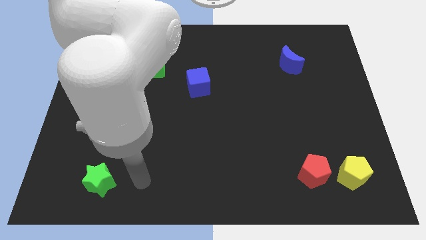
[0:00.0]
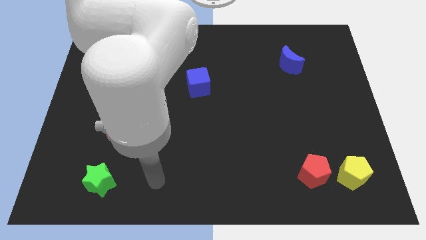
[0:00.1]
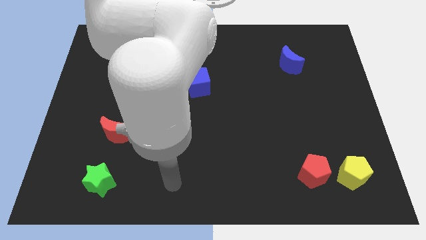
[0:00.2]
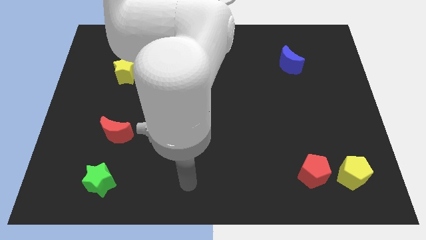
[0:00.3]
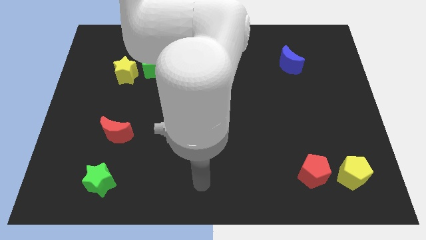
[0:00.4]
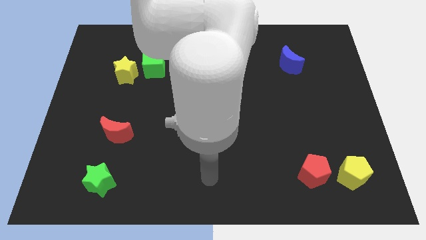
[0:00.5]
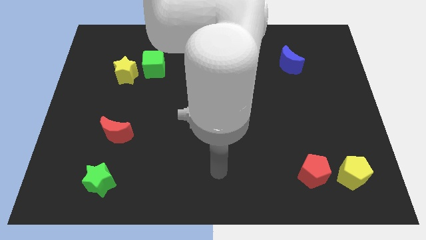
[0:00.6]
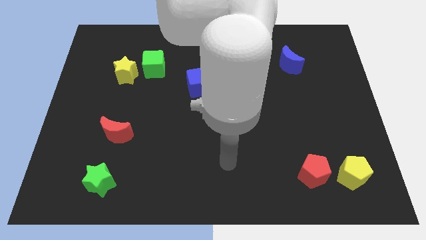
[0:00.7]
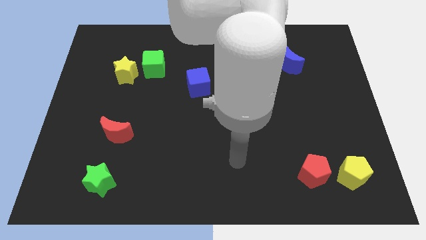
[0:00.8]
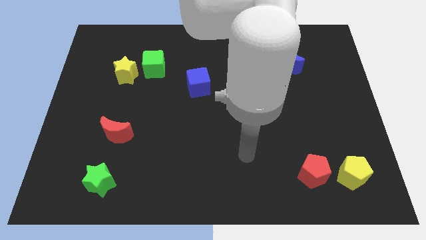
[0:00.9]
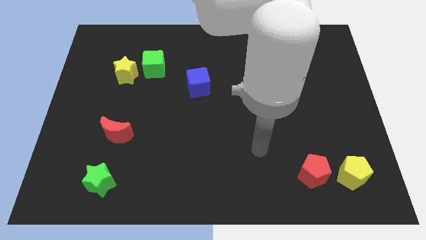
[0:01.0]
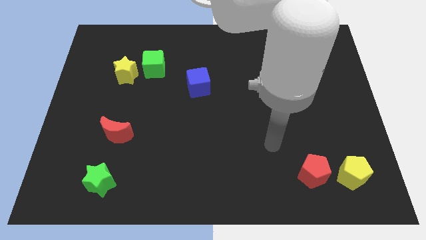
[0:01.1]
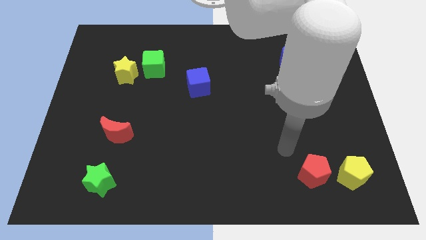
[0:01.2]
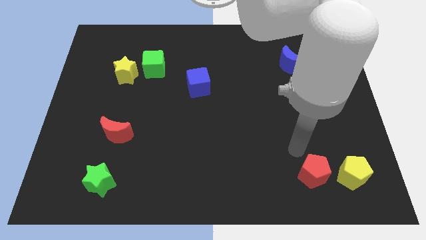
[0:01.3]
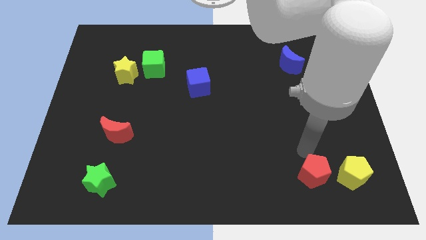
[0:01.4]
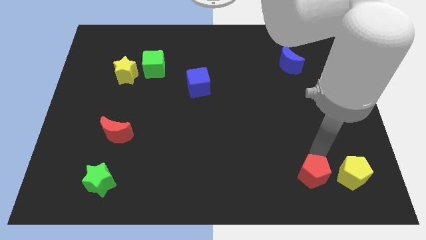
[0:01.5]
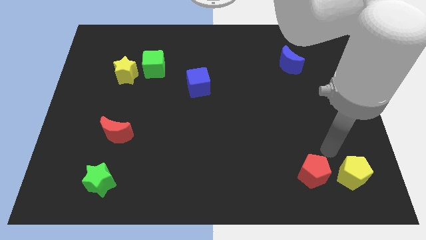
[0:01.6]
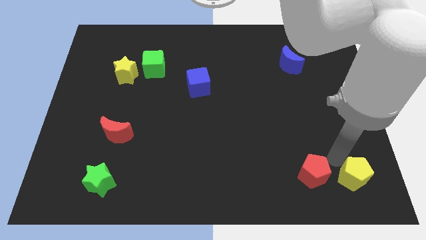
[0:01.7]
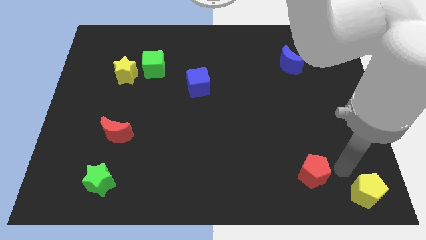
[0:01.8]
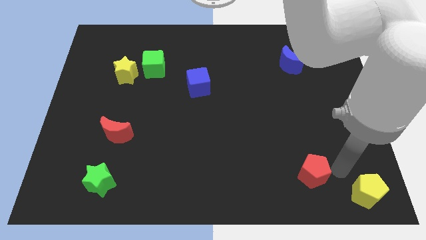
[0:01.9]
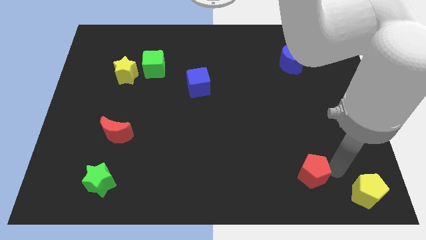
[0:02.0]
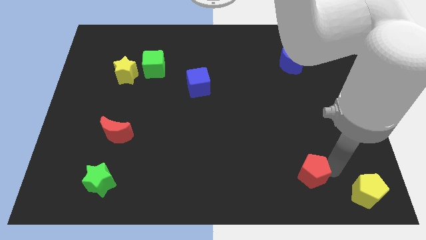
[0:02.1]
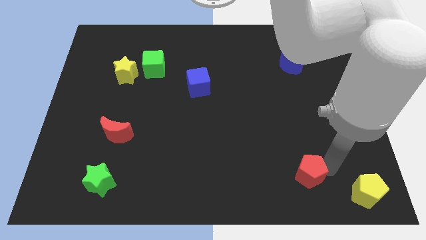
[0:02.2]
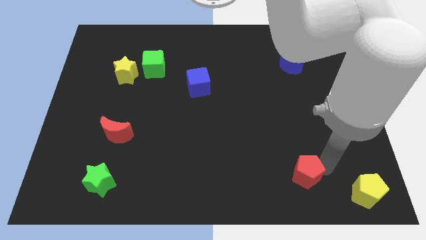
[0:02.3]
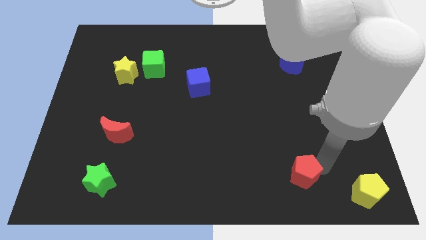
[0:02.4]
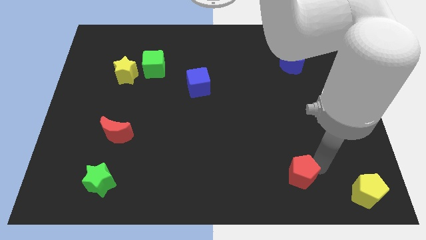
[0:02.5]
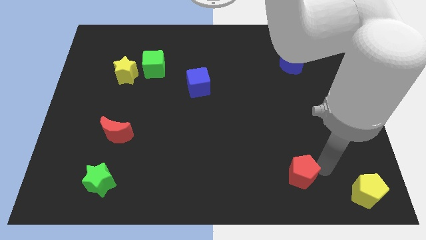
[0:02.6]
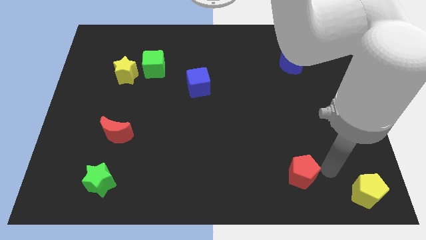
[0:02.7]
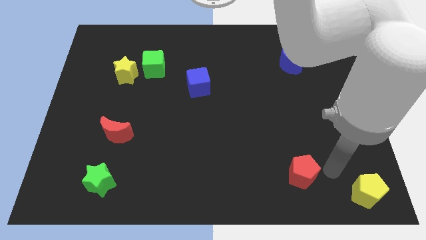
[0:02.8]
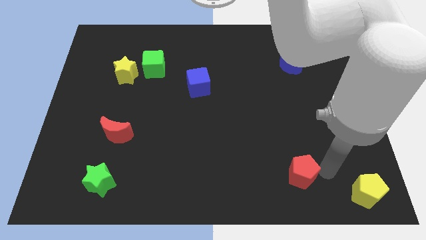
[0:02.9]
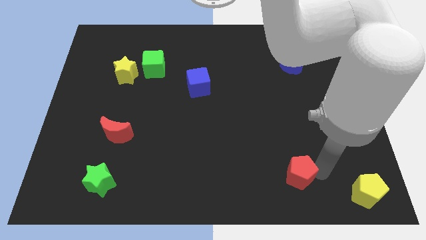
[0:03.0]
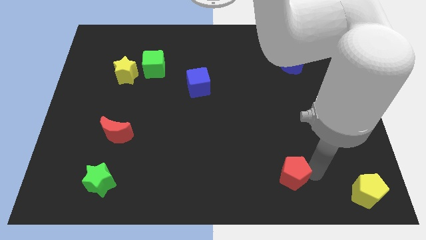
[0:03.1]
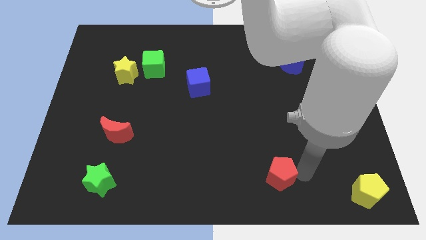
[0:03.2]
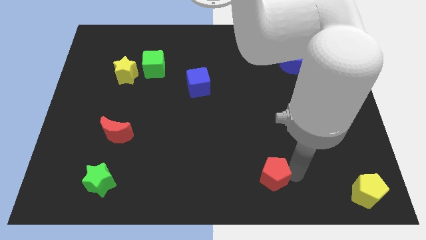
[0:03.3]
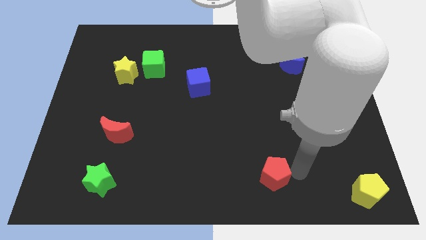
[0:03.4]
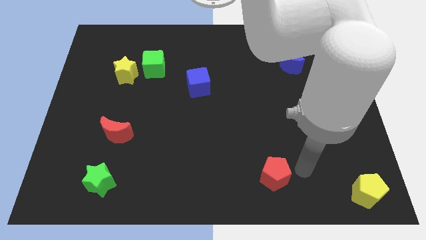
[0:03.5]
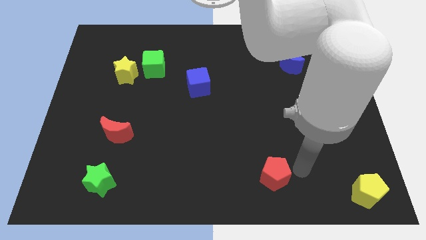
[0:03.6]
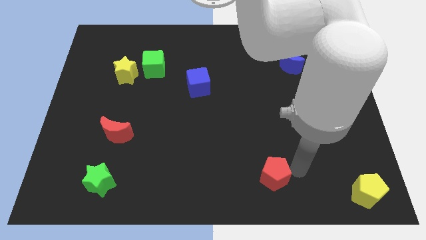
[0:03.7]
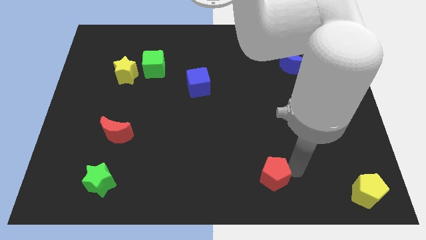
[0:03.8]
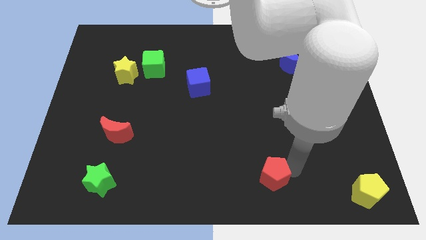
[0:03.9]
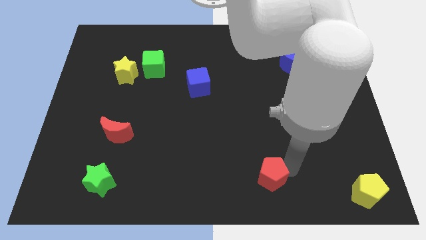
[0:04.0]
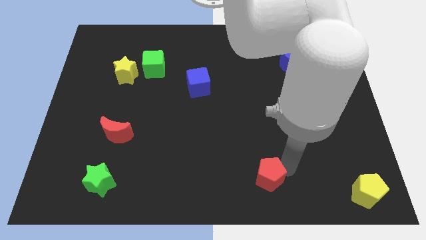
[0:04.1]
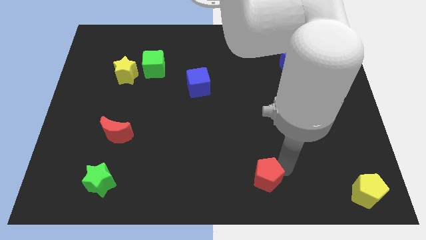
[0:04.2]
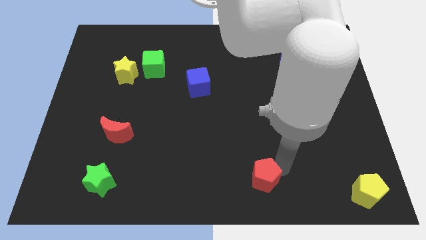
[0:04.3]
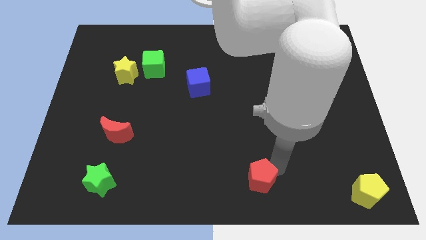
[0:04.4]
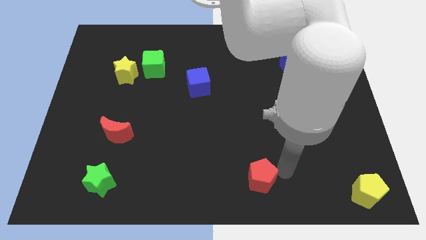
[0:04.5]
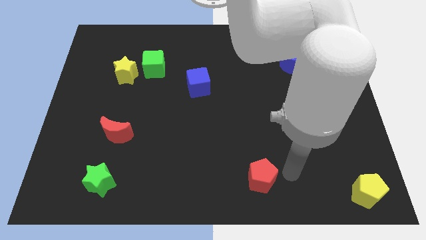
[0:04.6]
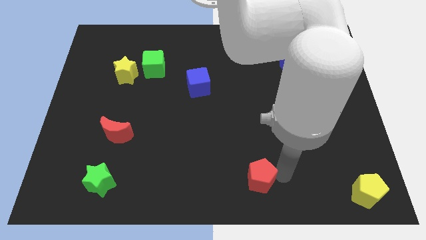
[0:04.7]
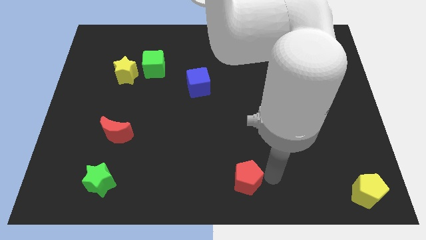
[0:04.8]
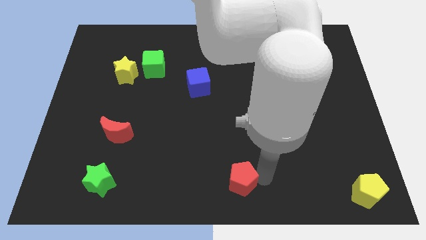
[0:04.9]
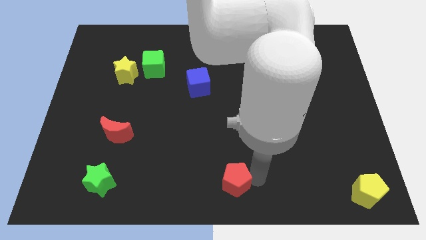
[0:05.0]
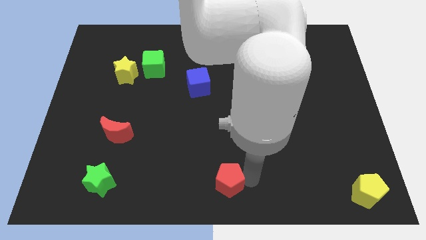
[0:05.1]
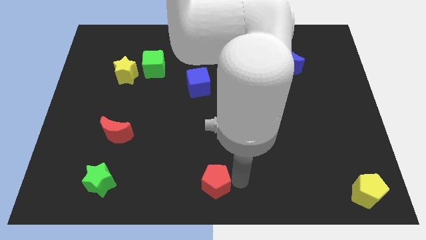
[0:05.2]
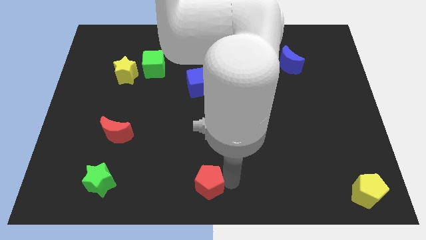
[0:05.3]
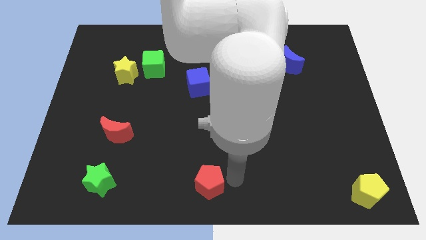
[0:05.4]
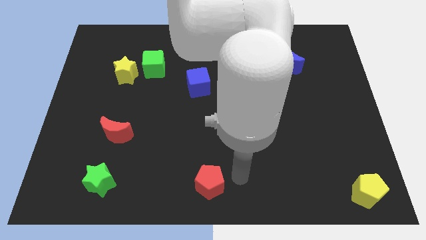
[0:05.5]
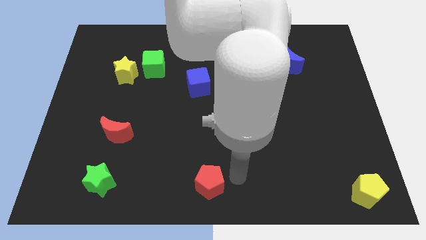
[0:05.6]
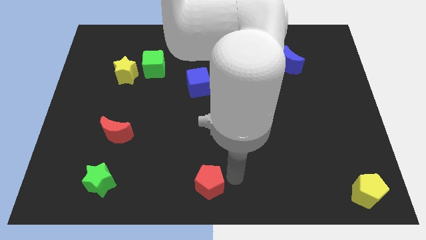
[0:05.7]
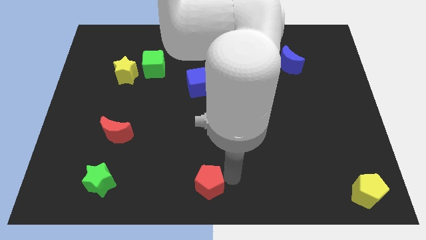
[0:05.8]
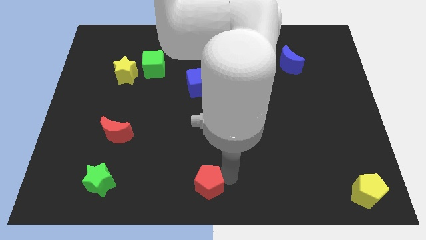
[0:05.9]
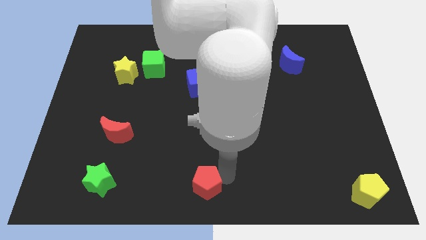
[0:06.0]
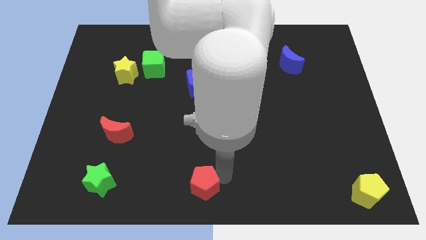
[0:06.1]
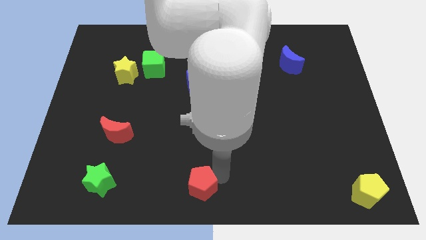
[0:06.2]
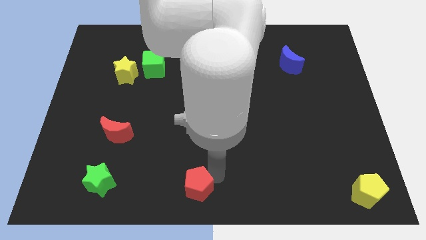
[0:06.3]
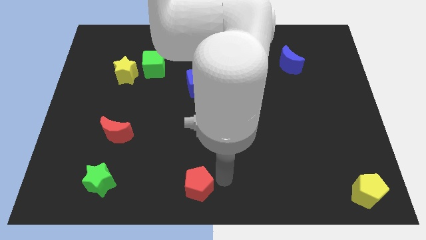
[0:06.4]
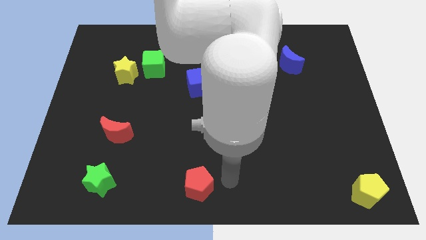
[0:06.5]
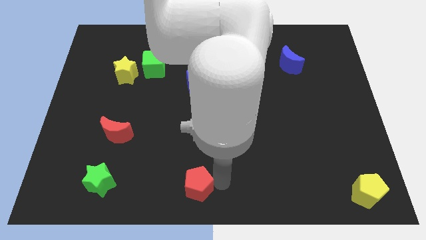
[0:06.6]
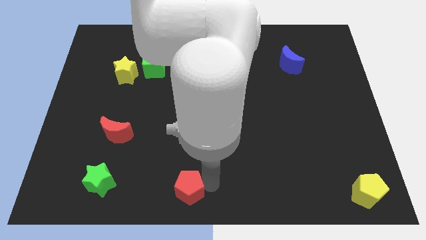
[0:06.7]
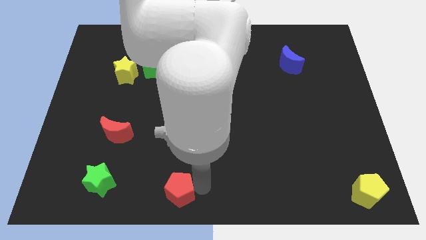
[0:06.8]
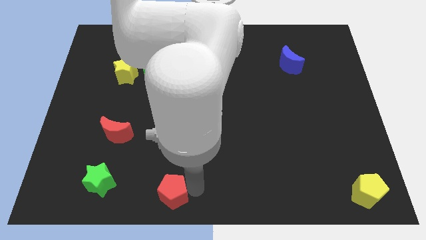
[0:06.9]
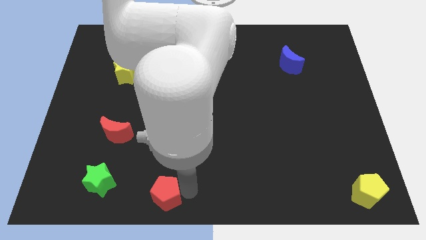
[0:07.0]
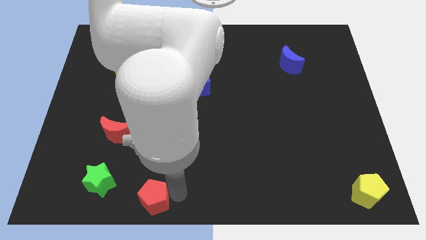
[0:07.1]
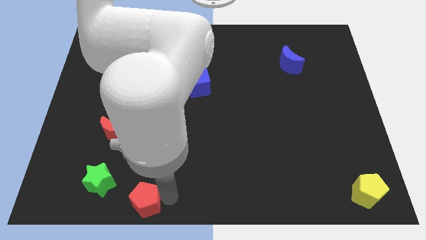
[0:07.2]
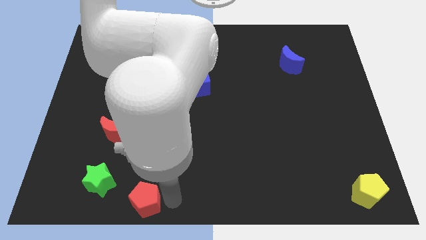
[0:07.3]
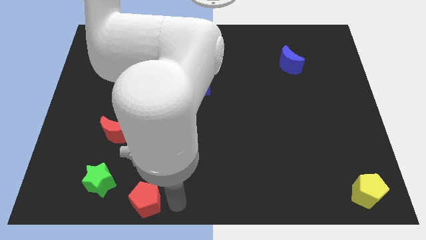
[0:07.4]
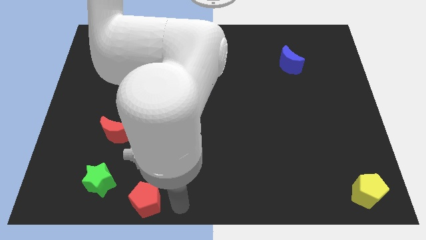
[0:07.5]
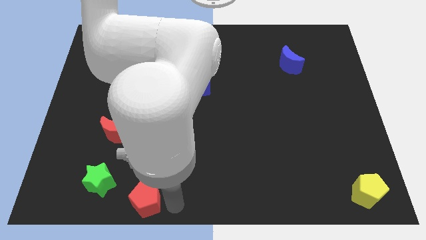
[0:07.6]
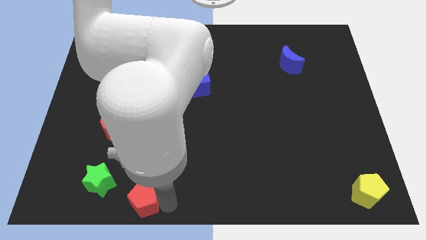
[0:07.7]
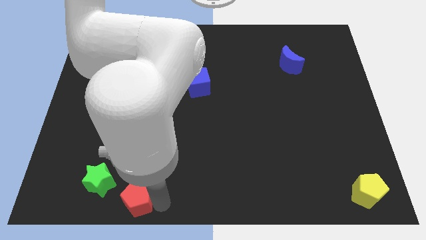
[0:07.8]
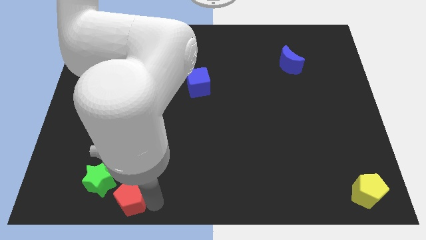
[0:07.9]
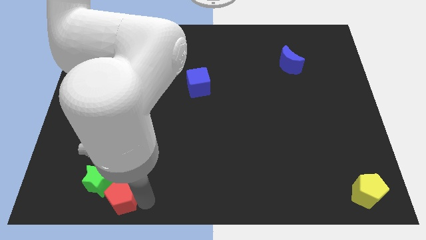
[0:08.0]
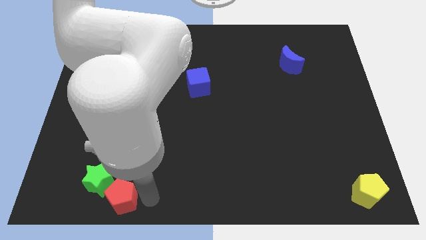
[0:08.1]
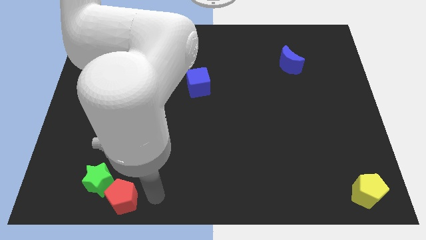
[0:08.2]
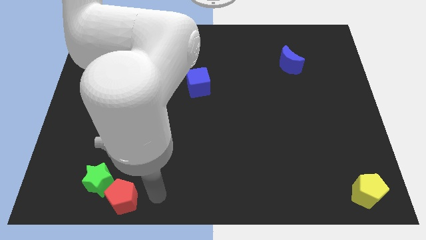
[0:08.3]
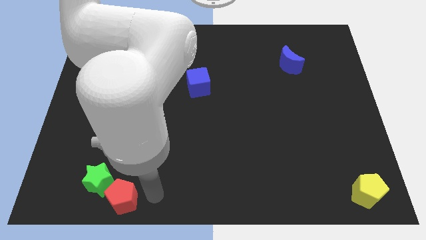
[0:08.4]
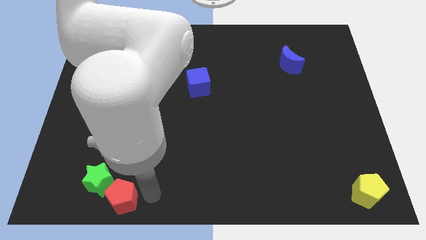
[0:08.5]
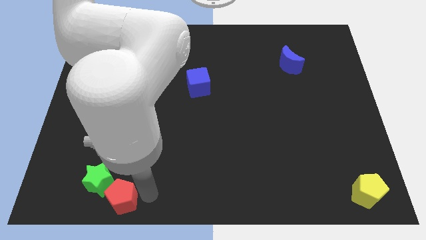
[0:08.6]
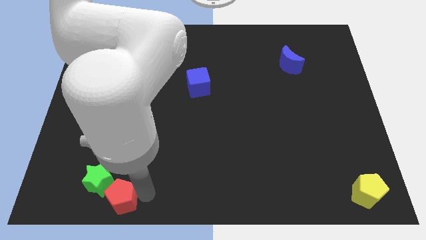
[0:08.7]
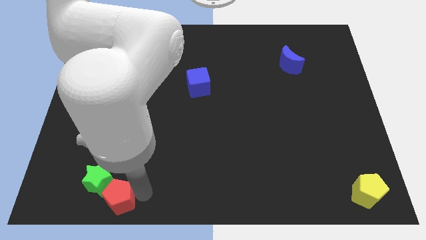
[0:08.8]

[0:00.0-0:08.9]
move the red pentagon to the bottom of the red moon
